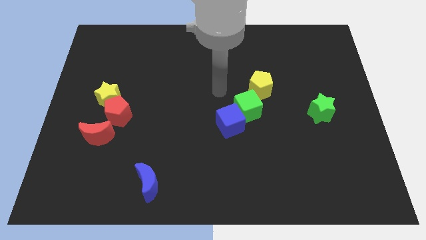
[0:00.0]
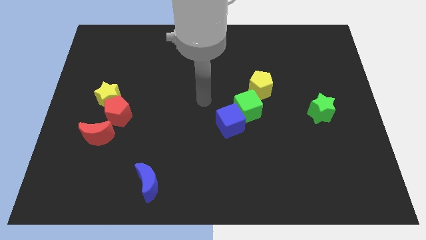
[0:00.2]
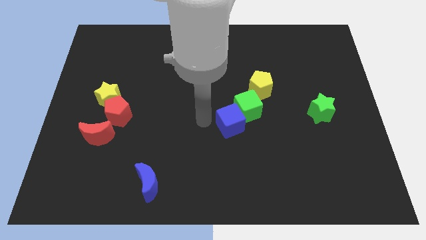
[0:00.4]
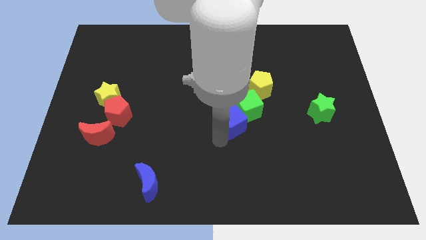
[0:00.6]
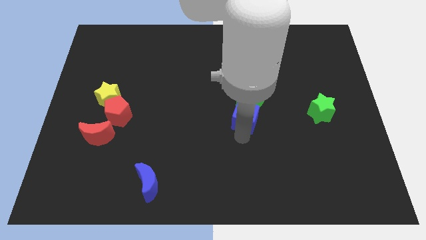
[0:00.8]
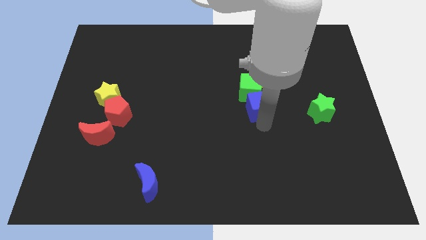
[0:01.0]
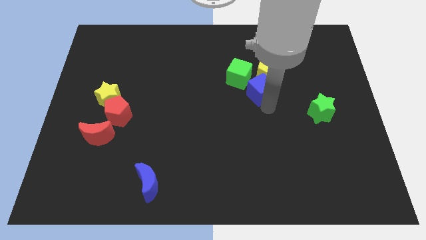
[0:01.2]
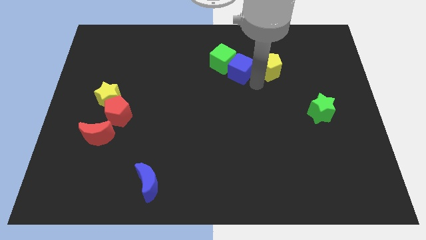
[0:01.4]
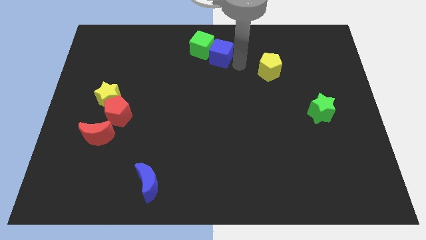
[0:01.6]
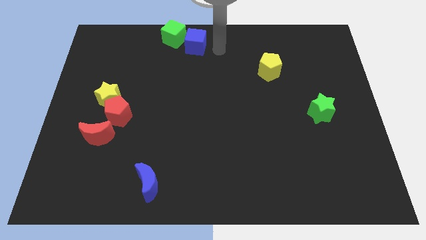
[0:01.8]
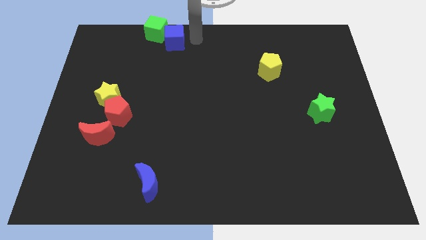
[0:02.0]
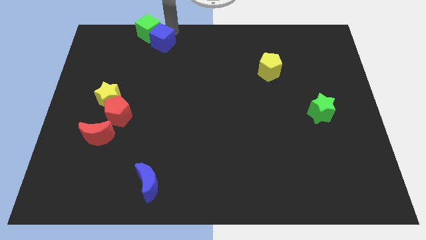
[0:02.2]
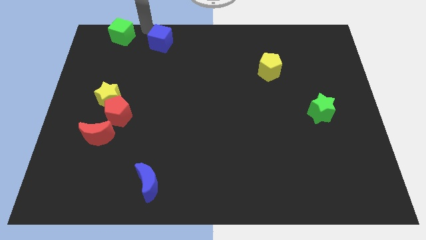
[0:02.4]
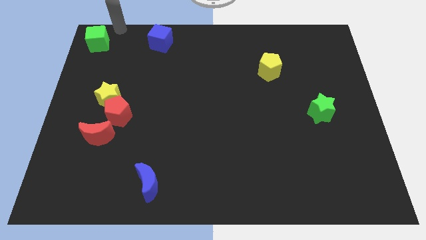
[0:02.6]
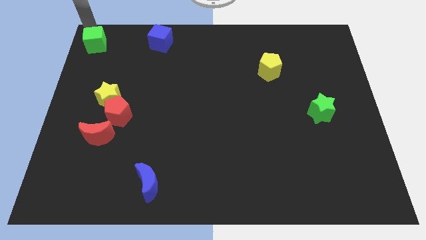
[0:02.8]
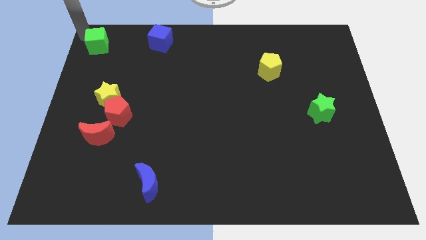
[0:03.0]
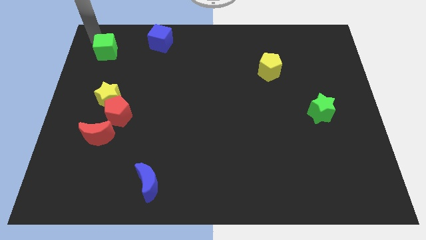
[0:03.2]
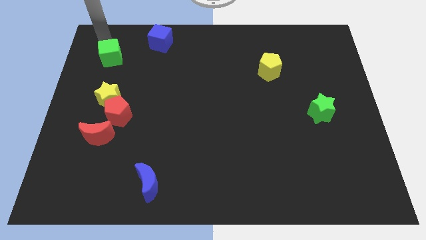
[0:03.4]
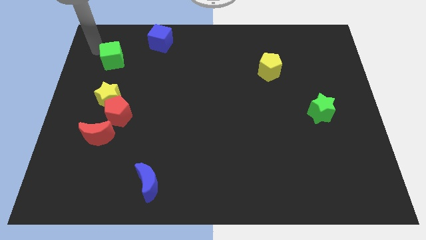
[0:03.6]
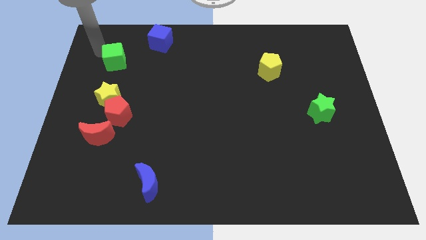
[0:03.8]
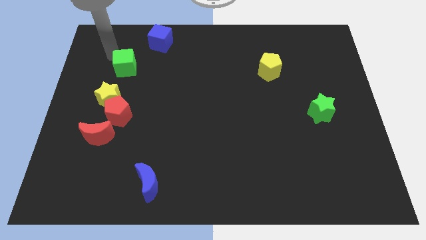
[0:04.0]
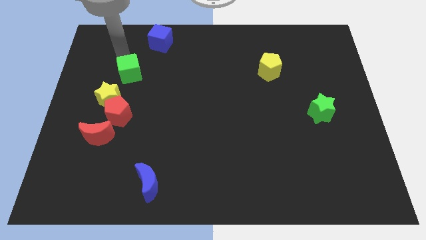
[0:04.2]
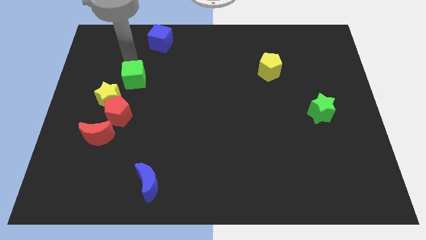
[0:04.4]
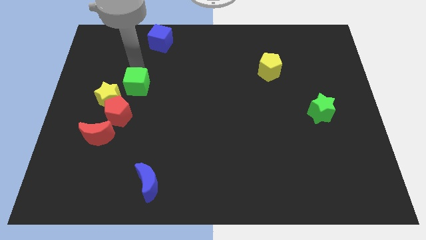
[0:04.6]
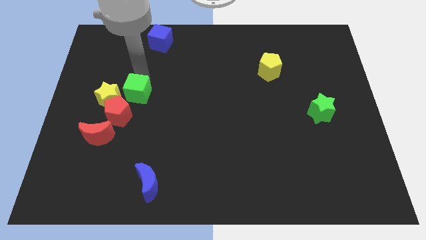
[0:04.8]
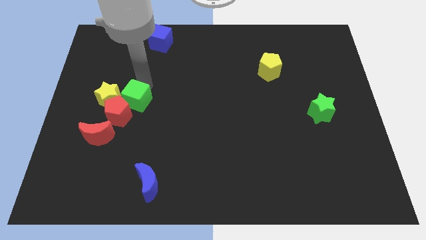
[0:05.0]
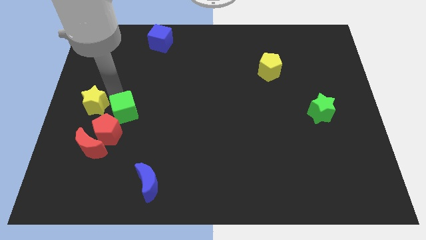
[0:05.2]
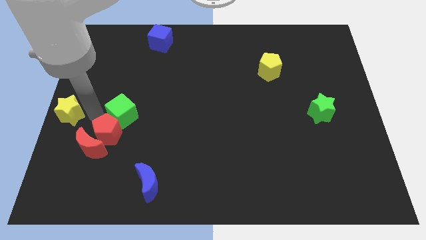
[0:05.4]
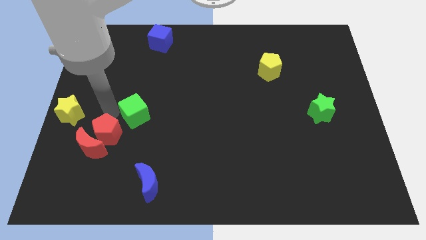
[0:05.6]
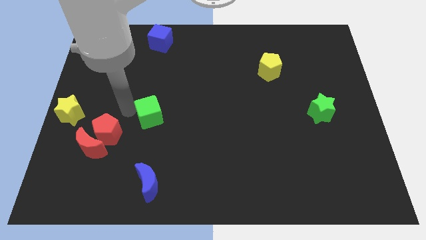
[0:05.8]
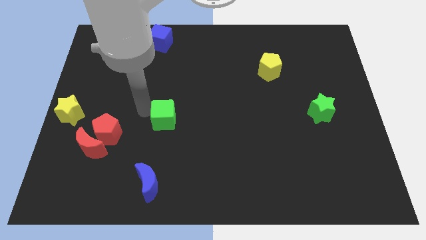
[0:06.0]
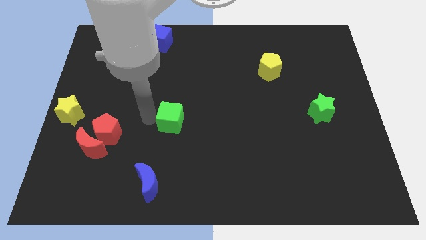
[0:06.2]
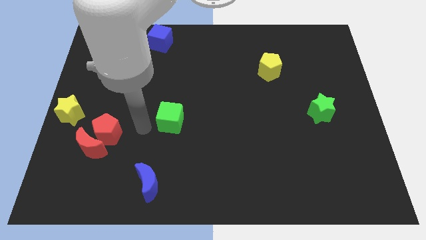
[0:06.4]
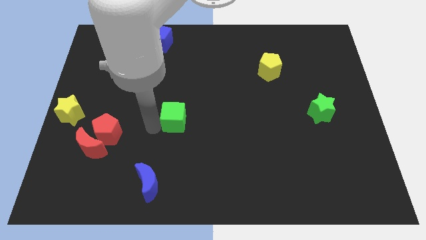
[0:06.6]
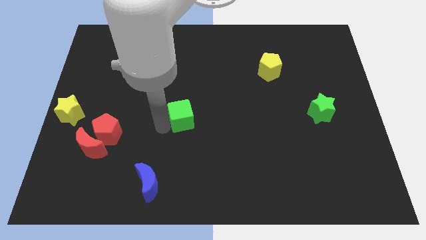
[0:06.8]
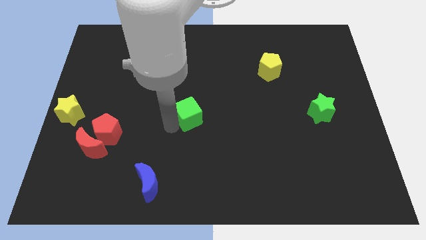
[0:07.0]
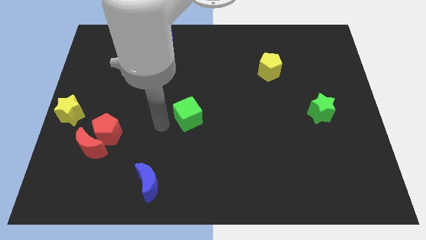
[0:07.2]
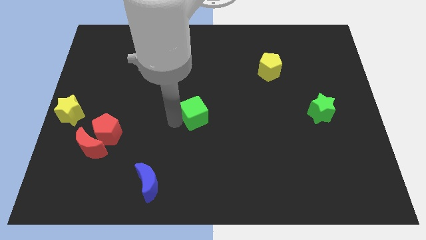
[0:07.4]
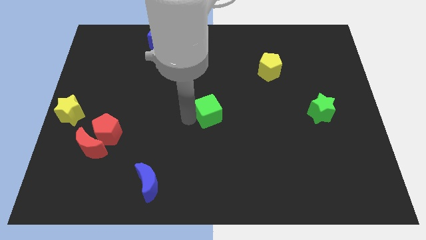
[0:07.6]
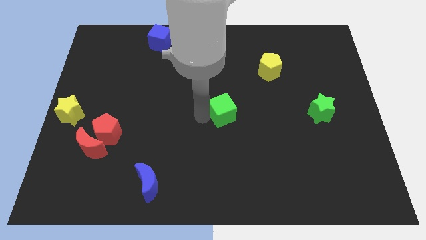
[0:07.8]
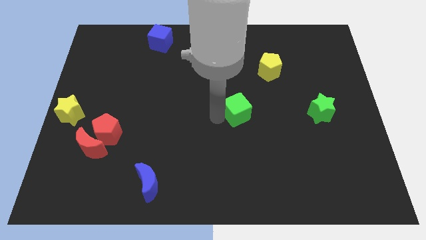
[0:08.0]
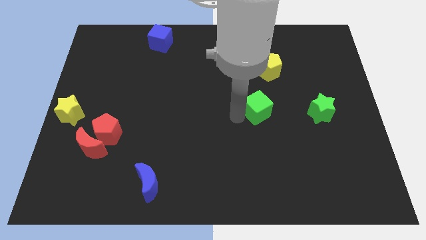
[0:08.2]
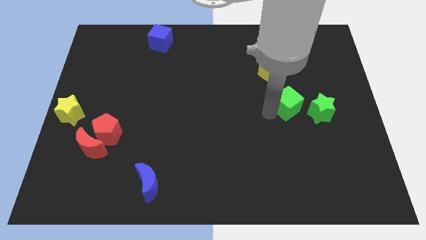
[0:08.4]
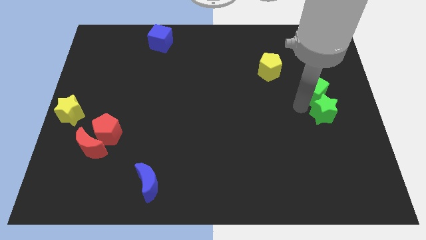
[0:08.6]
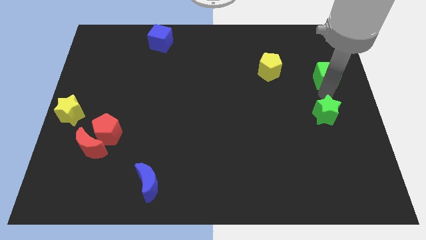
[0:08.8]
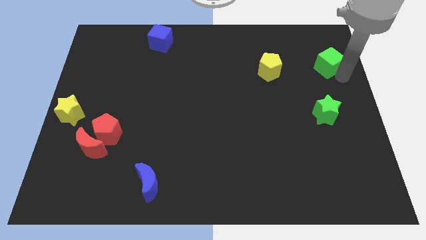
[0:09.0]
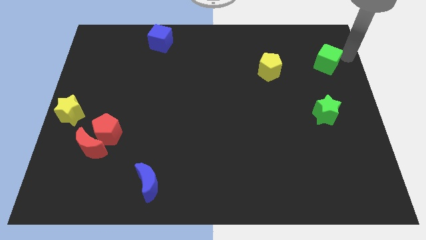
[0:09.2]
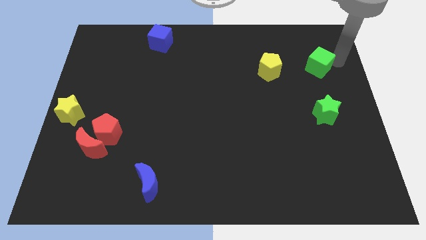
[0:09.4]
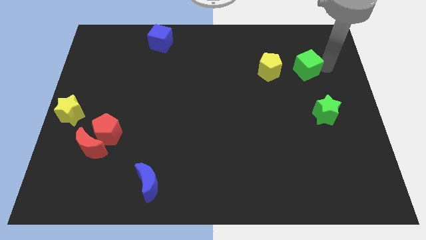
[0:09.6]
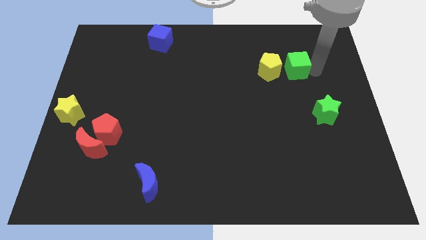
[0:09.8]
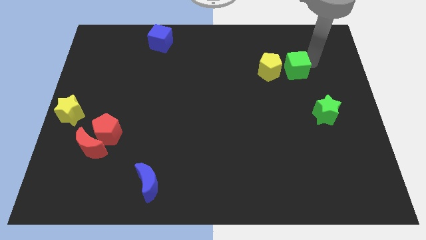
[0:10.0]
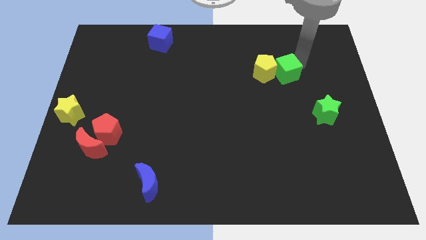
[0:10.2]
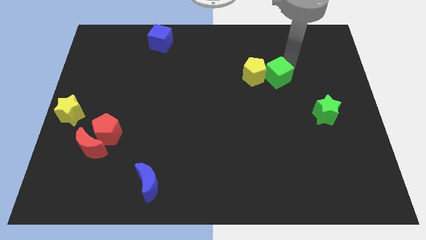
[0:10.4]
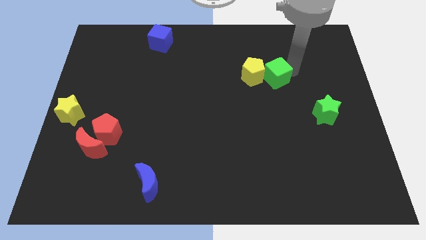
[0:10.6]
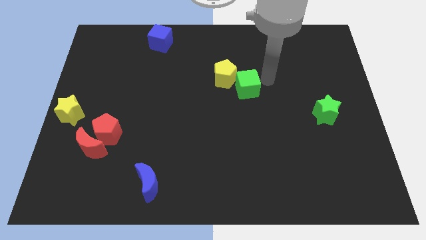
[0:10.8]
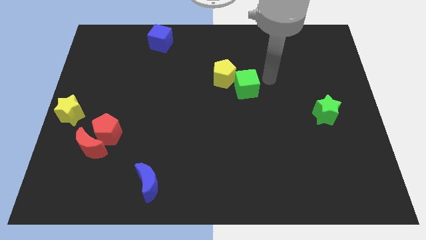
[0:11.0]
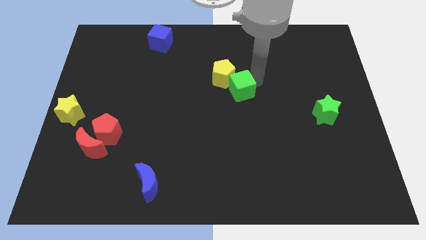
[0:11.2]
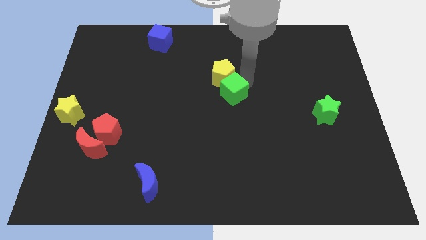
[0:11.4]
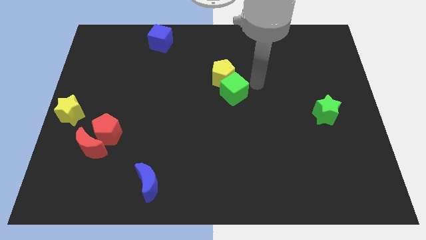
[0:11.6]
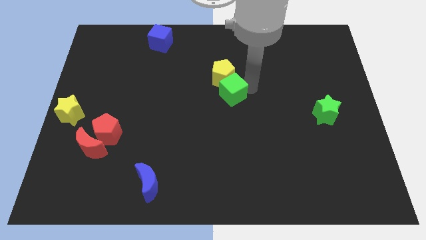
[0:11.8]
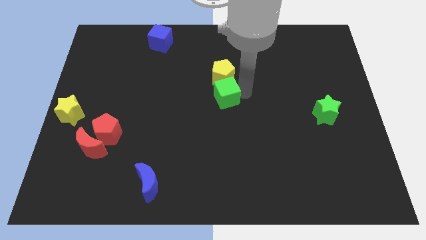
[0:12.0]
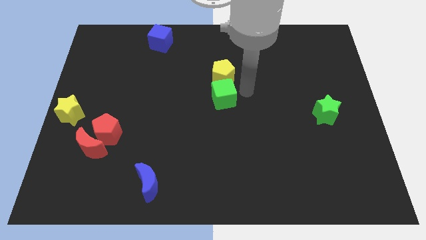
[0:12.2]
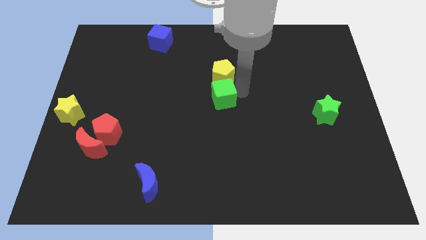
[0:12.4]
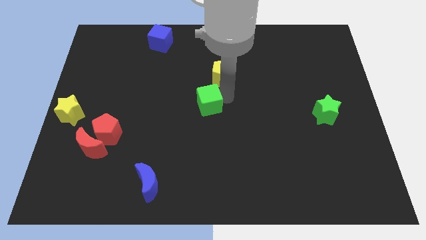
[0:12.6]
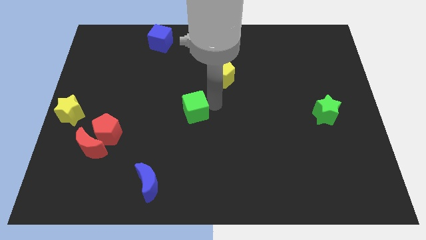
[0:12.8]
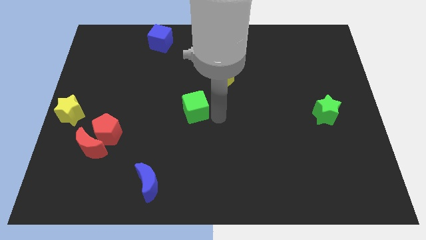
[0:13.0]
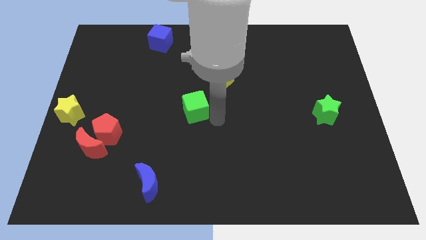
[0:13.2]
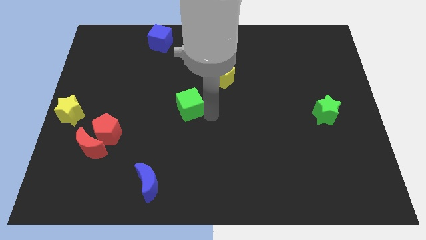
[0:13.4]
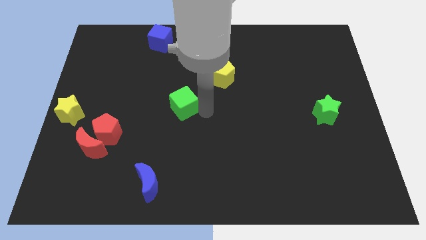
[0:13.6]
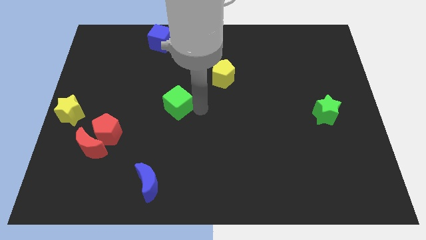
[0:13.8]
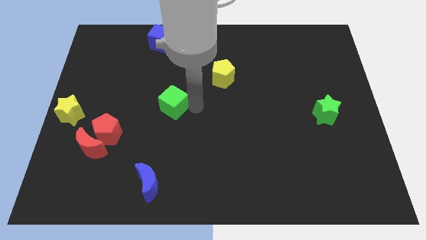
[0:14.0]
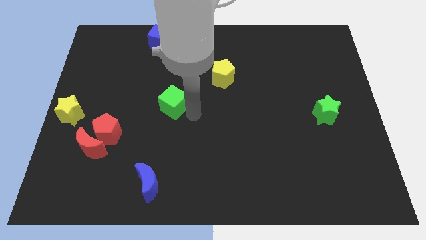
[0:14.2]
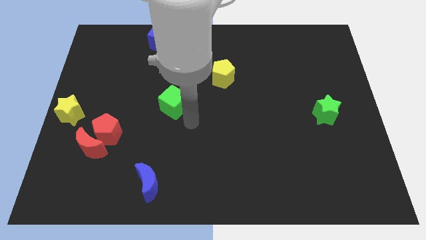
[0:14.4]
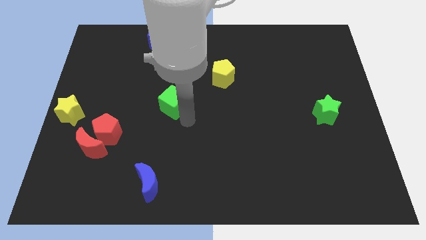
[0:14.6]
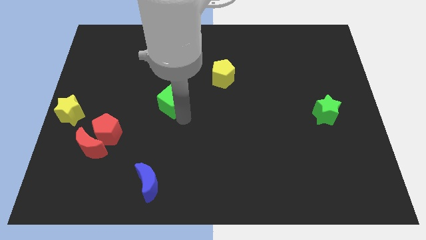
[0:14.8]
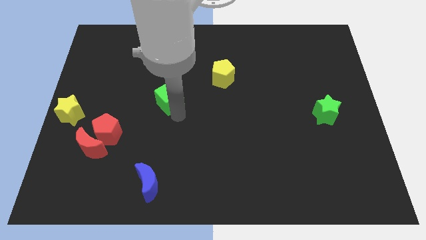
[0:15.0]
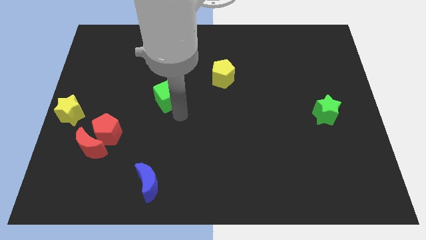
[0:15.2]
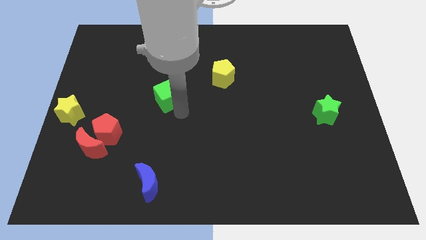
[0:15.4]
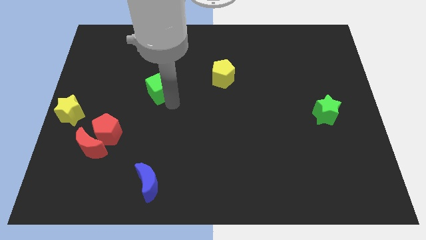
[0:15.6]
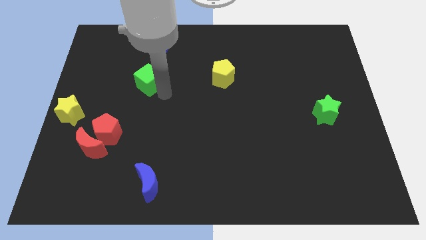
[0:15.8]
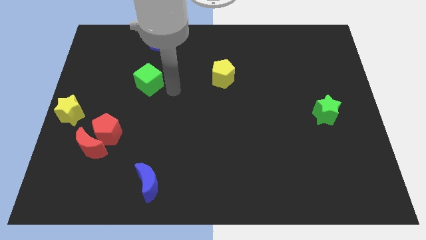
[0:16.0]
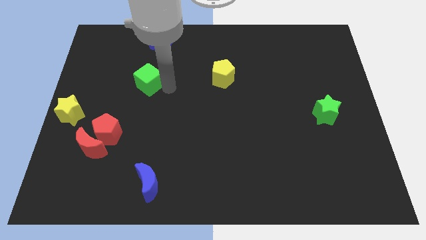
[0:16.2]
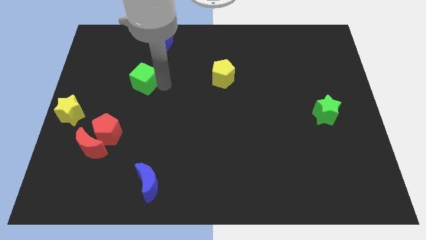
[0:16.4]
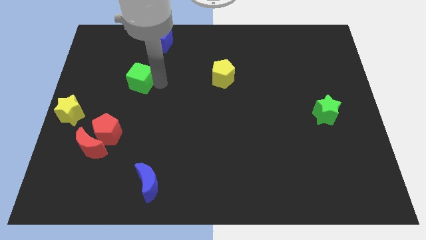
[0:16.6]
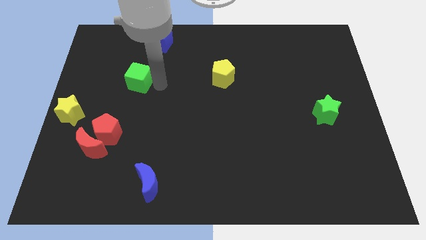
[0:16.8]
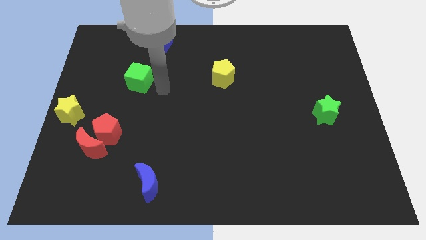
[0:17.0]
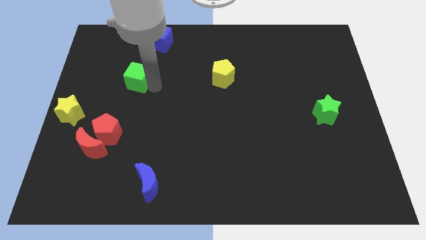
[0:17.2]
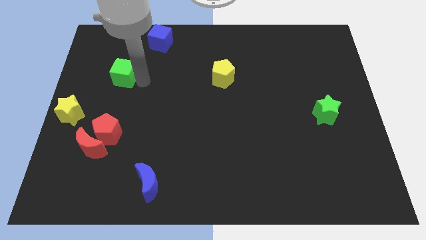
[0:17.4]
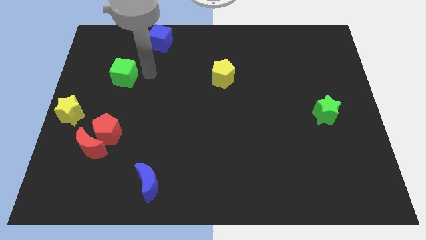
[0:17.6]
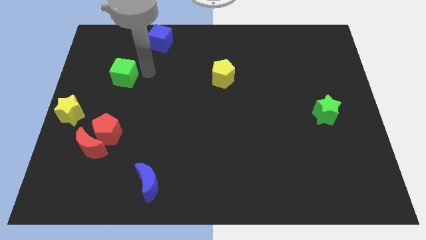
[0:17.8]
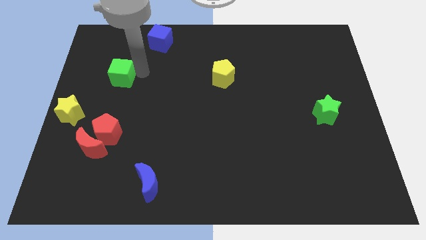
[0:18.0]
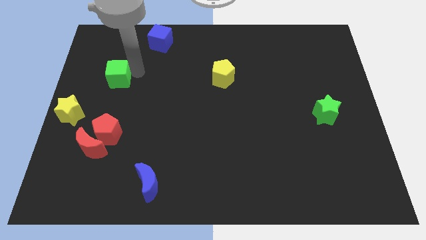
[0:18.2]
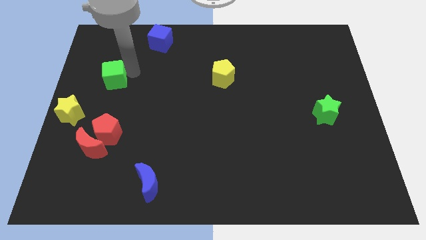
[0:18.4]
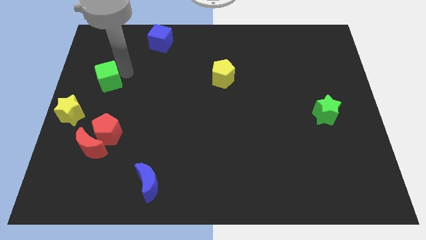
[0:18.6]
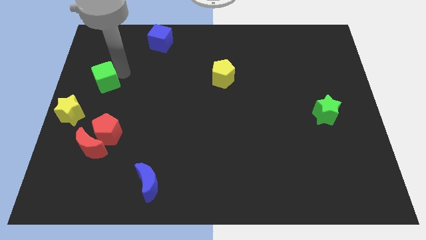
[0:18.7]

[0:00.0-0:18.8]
push the green cube to the center left
